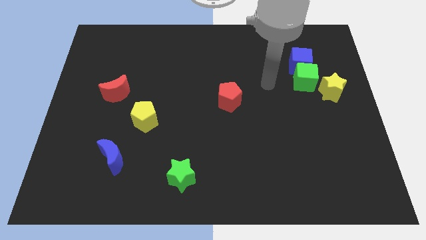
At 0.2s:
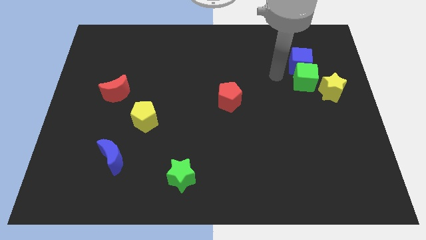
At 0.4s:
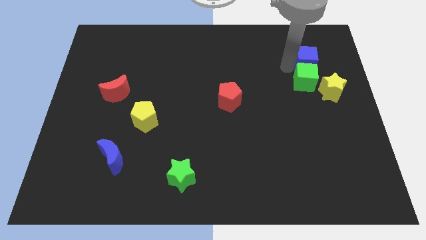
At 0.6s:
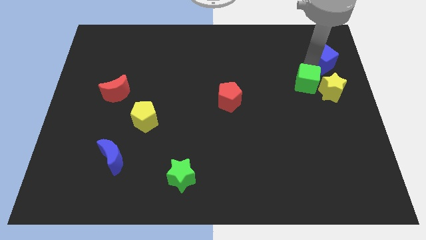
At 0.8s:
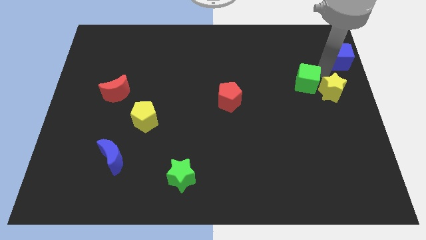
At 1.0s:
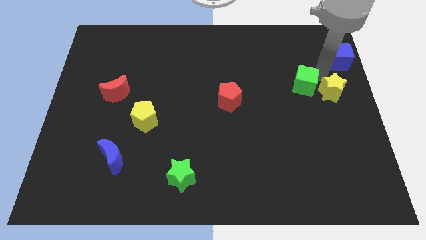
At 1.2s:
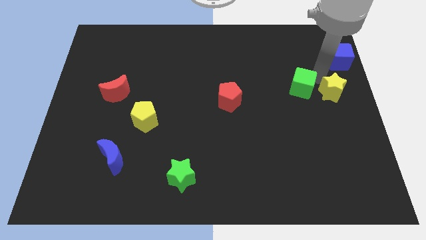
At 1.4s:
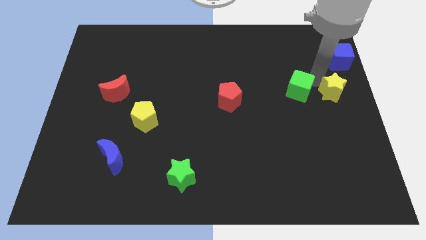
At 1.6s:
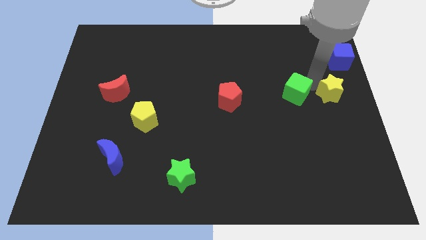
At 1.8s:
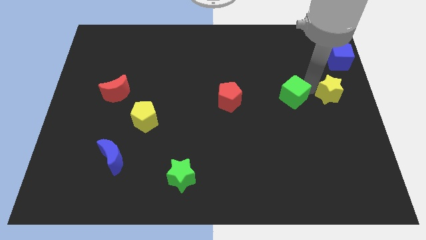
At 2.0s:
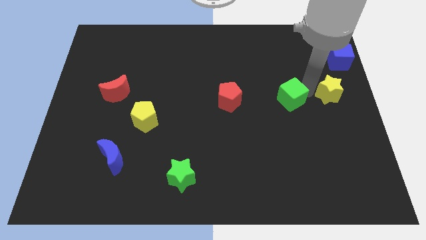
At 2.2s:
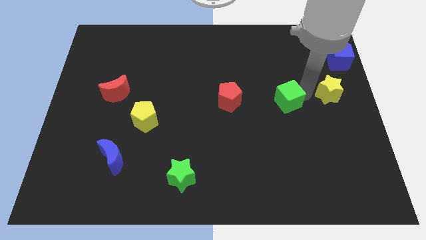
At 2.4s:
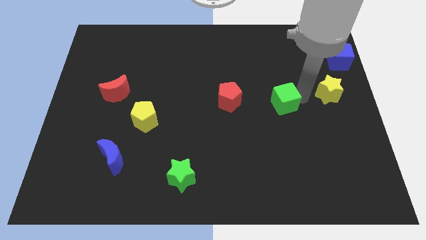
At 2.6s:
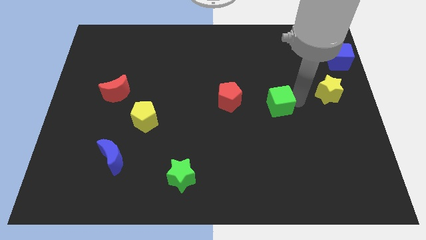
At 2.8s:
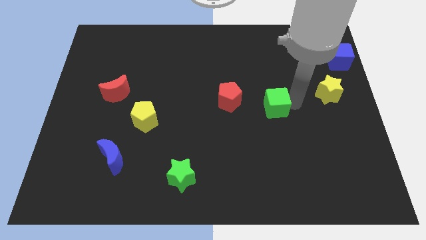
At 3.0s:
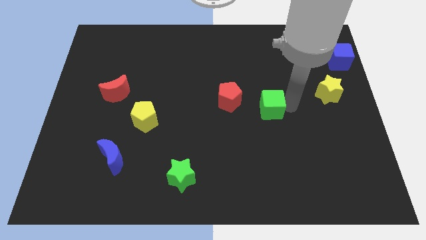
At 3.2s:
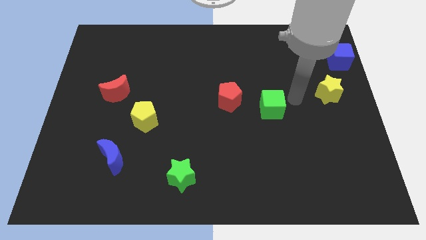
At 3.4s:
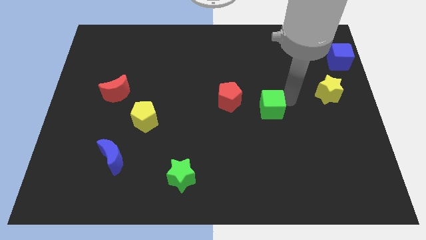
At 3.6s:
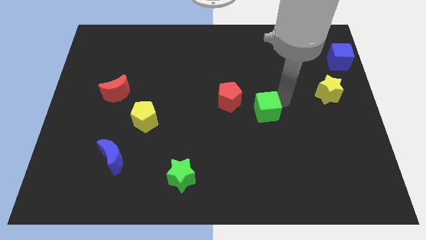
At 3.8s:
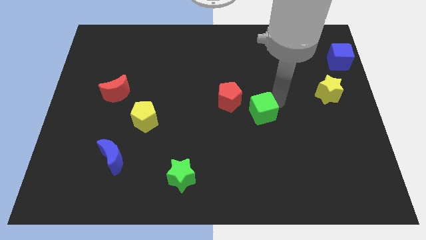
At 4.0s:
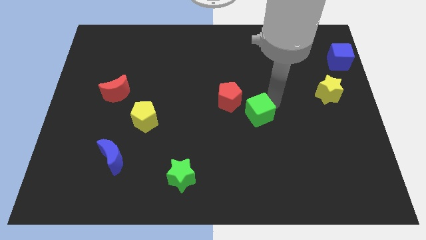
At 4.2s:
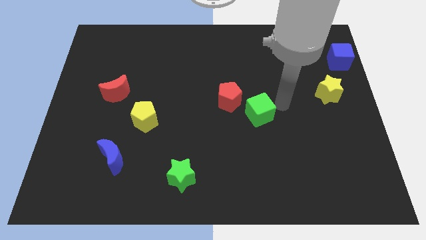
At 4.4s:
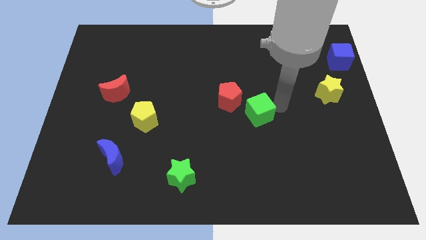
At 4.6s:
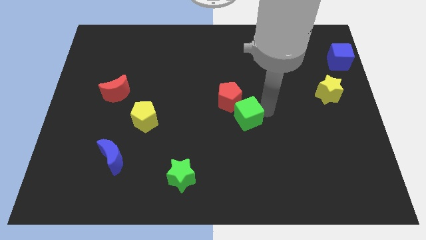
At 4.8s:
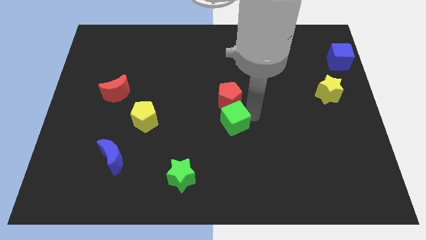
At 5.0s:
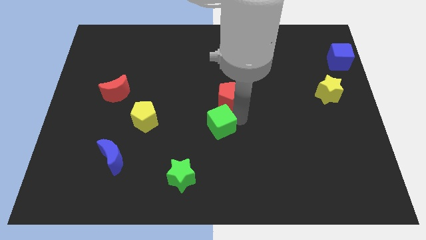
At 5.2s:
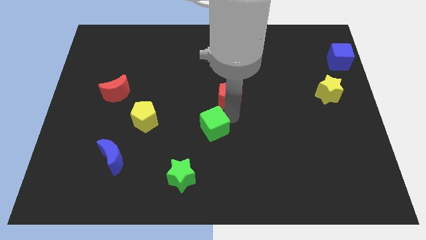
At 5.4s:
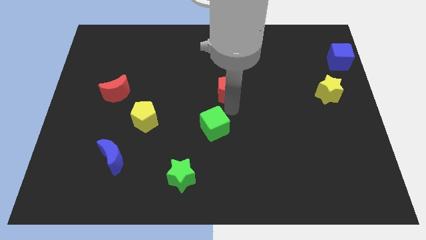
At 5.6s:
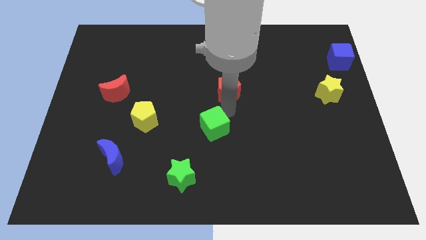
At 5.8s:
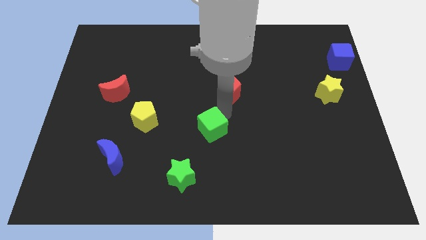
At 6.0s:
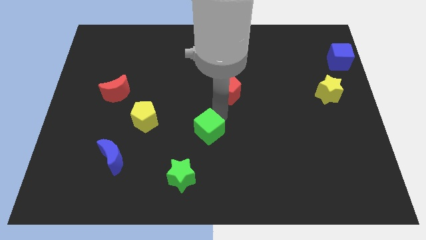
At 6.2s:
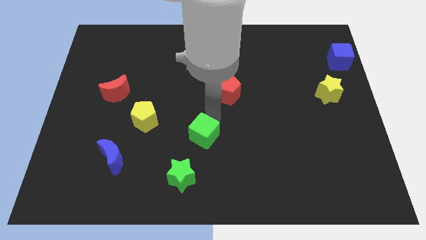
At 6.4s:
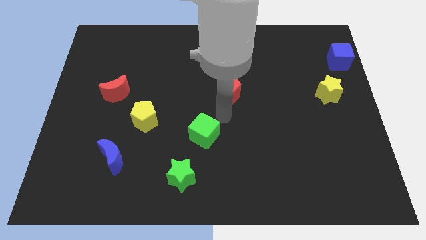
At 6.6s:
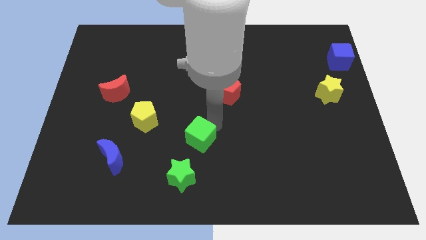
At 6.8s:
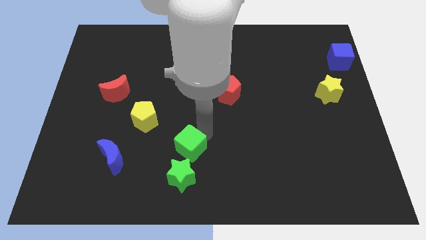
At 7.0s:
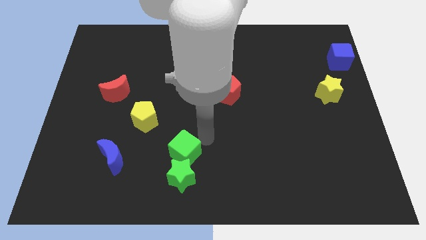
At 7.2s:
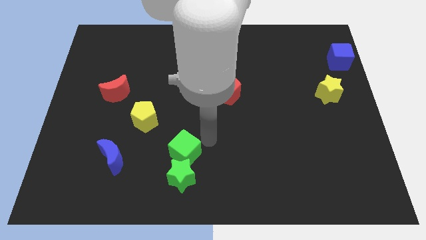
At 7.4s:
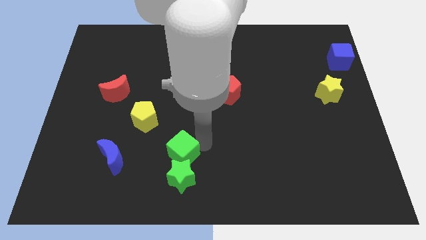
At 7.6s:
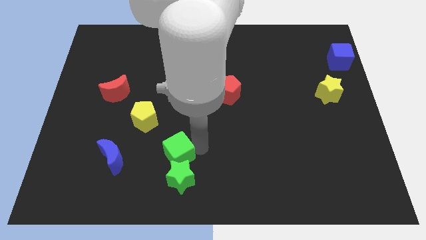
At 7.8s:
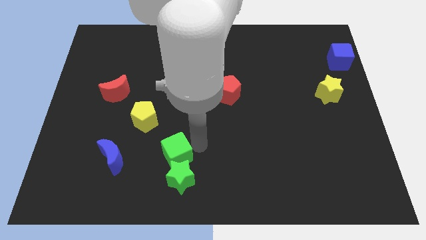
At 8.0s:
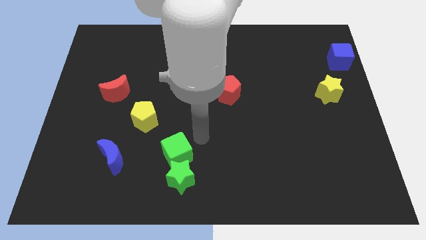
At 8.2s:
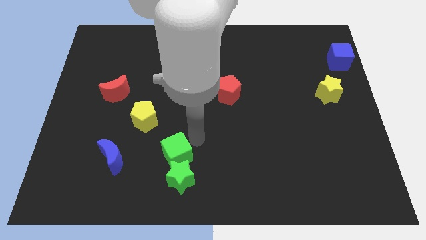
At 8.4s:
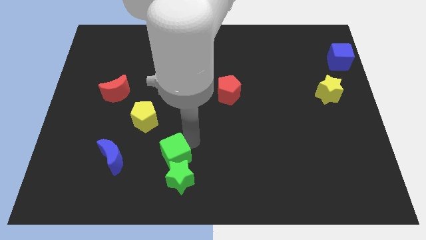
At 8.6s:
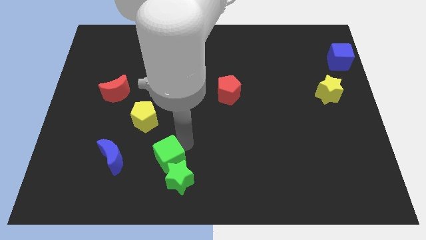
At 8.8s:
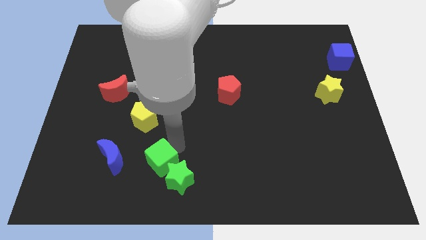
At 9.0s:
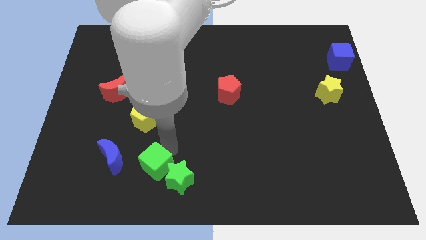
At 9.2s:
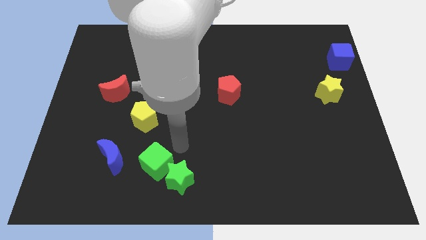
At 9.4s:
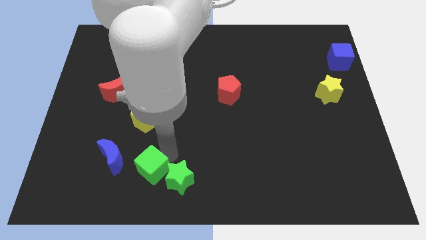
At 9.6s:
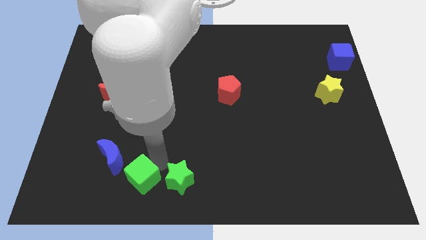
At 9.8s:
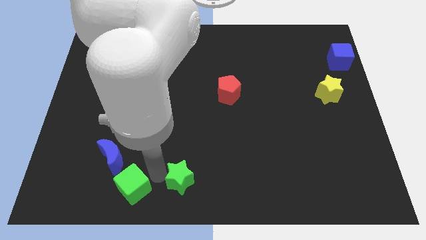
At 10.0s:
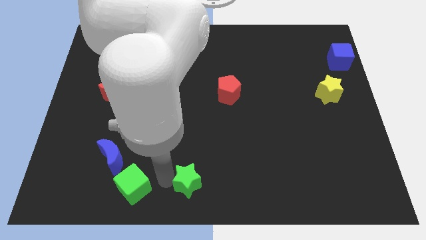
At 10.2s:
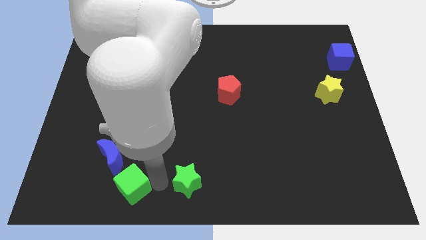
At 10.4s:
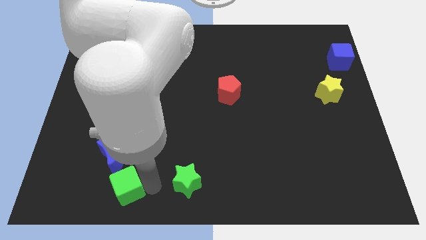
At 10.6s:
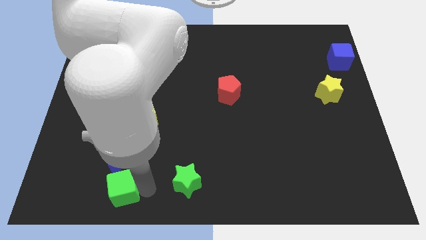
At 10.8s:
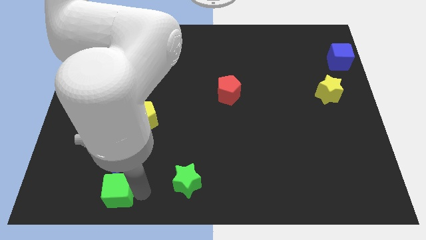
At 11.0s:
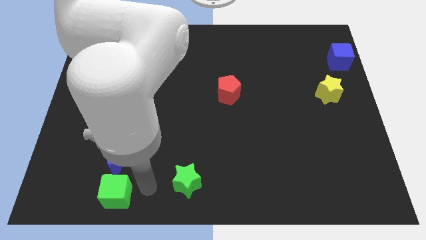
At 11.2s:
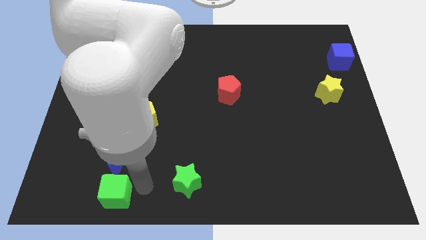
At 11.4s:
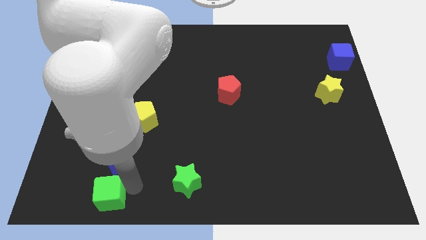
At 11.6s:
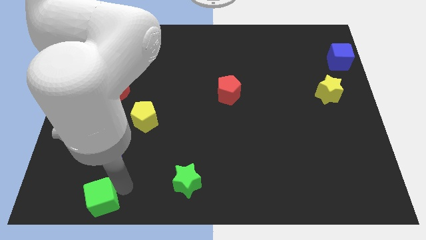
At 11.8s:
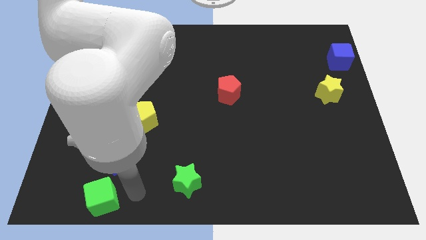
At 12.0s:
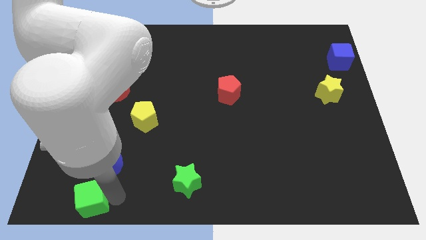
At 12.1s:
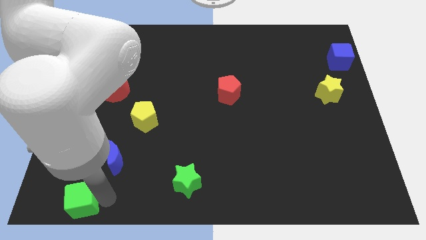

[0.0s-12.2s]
move the green cube to the bottom left of the board
